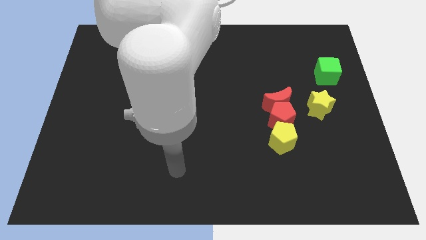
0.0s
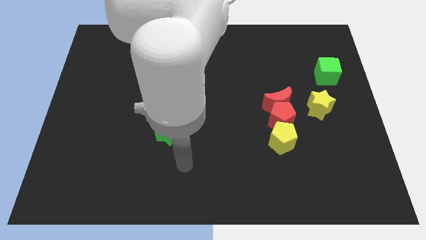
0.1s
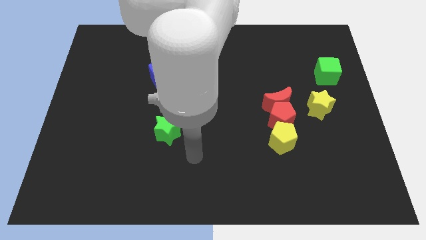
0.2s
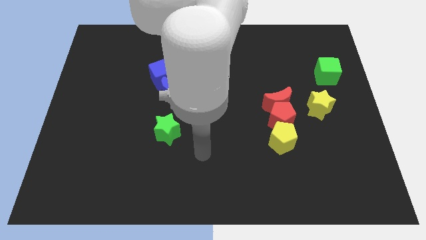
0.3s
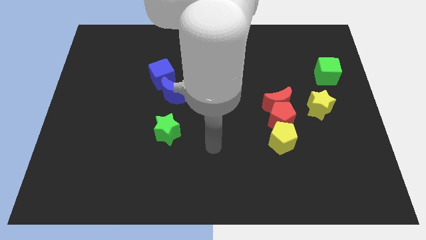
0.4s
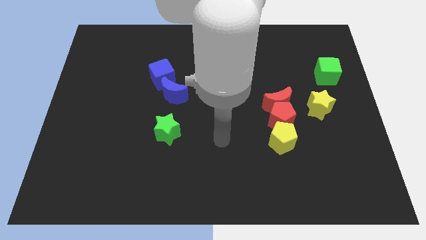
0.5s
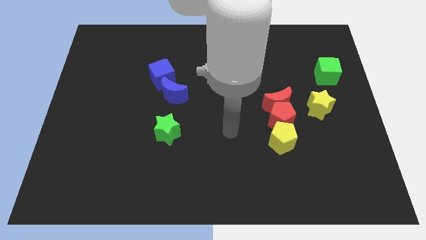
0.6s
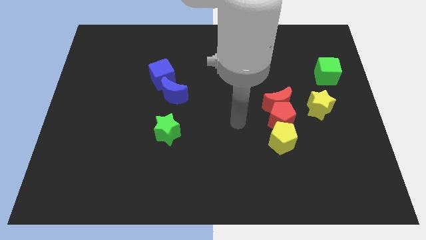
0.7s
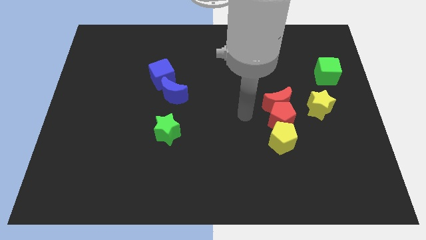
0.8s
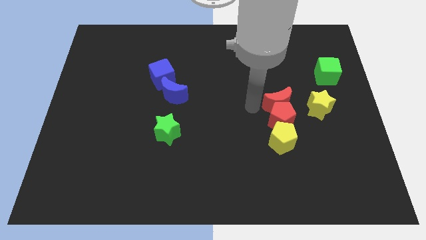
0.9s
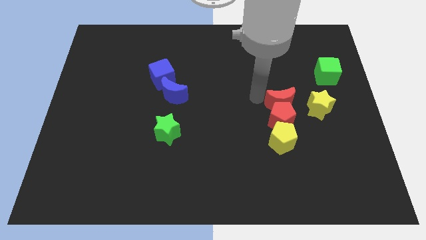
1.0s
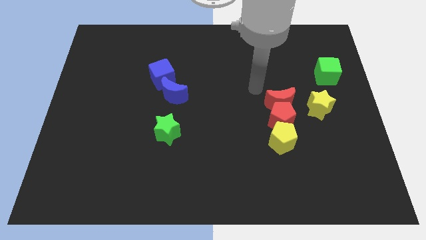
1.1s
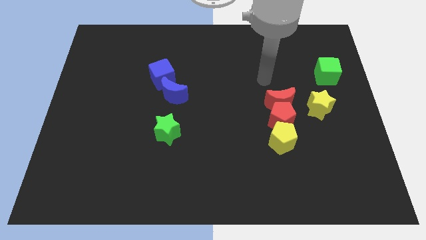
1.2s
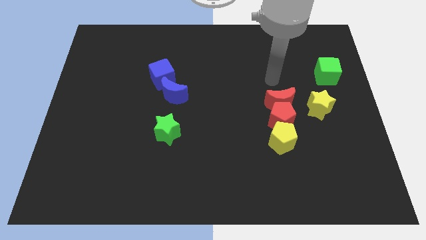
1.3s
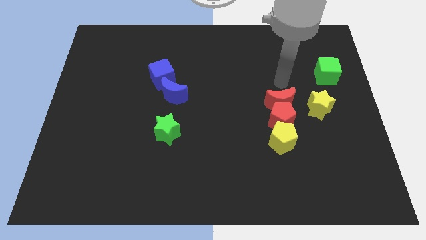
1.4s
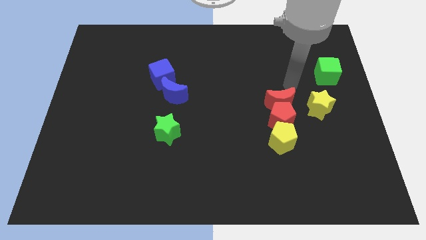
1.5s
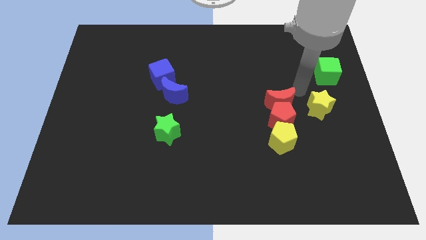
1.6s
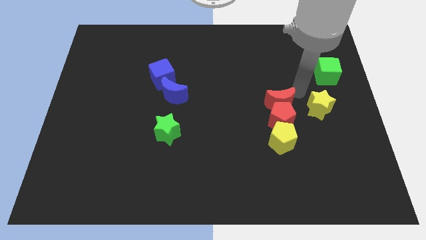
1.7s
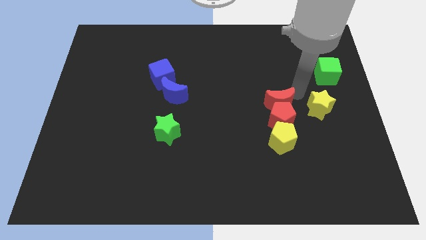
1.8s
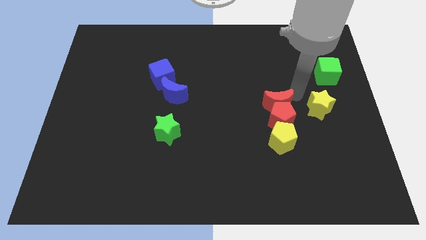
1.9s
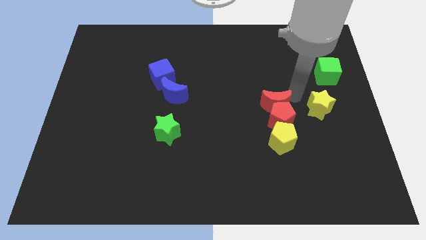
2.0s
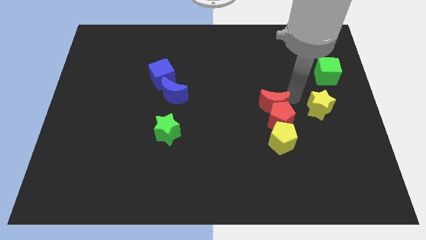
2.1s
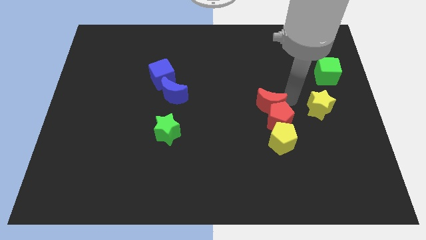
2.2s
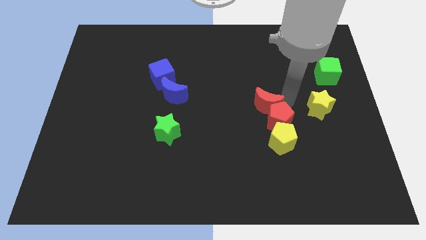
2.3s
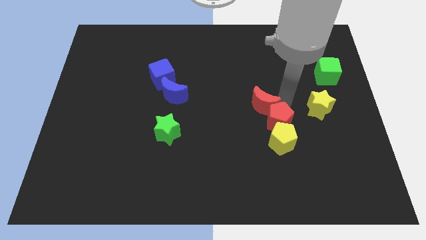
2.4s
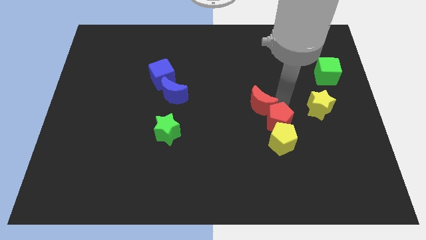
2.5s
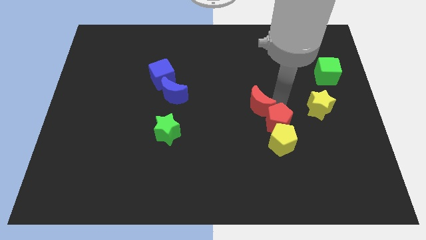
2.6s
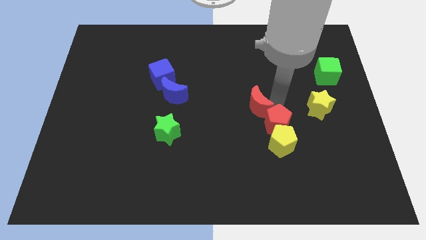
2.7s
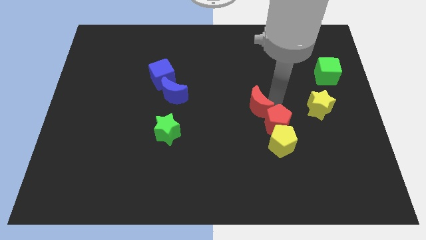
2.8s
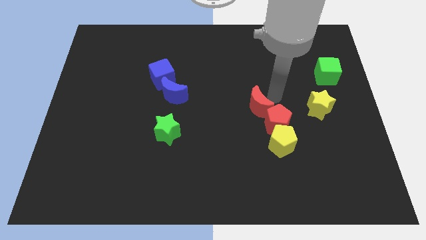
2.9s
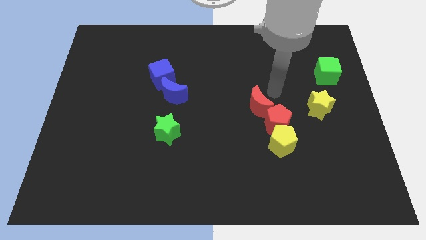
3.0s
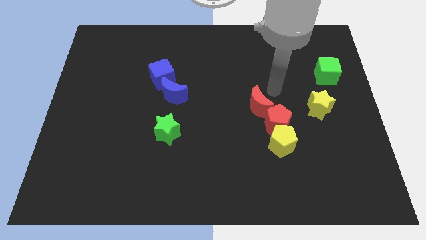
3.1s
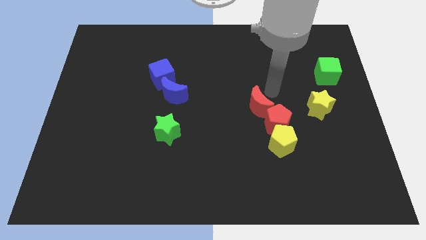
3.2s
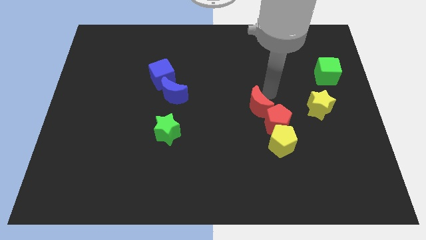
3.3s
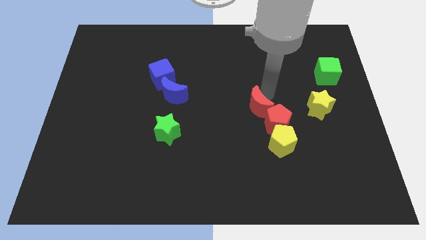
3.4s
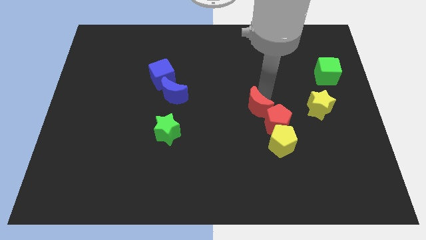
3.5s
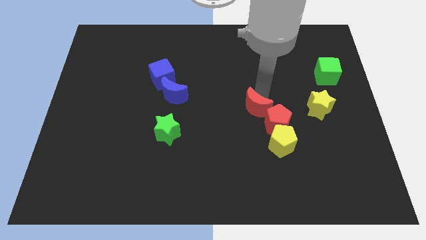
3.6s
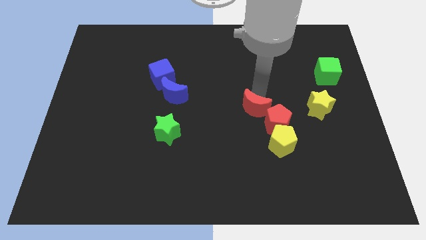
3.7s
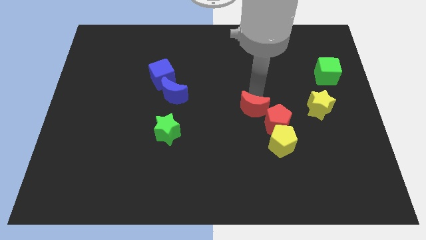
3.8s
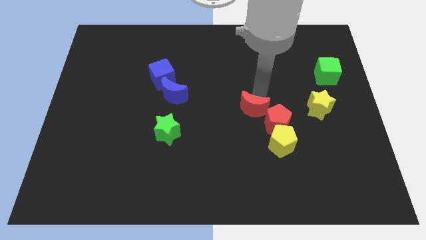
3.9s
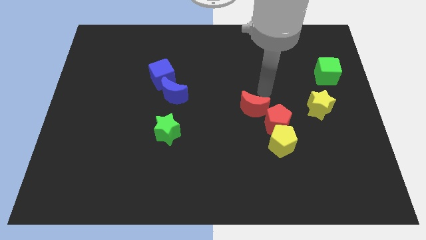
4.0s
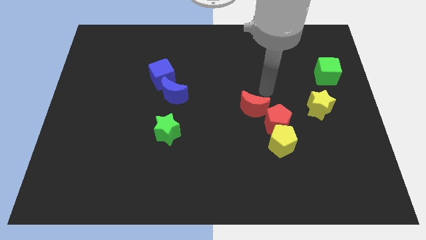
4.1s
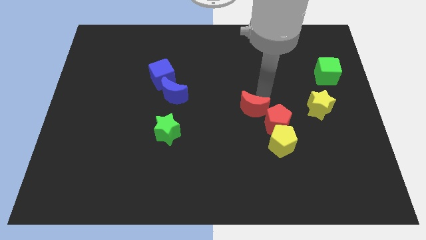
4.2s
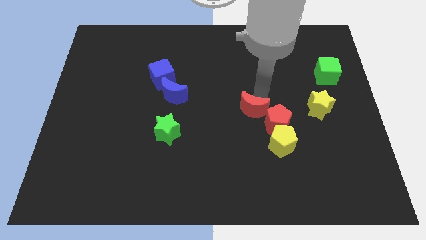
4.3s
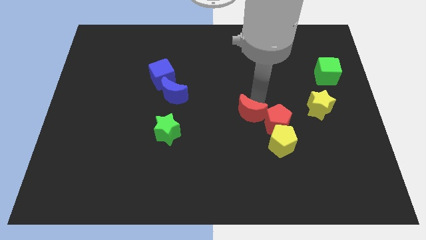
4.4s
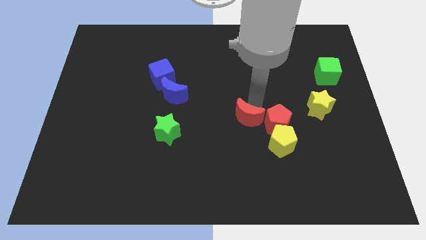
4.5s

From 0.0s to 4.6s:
slightly move the red moon down and to the left diagonally

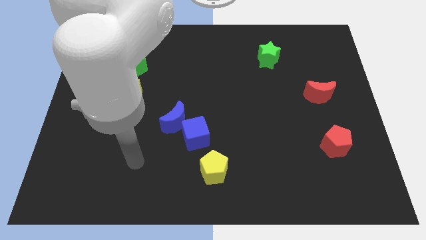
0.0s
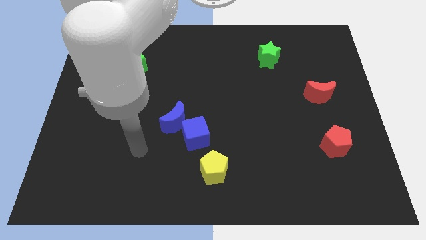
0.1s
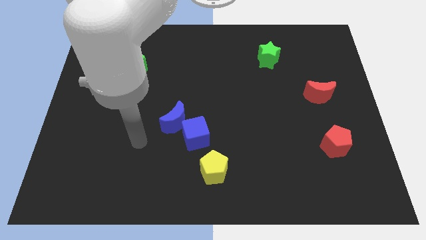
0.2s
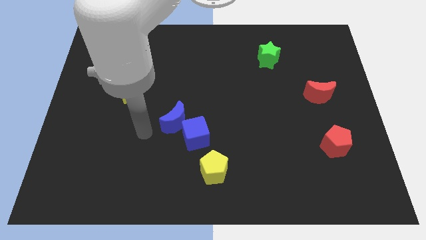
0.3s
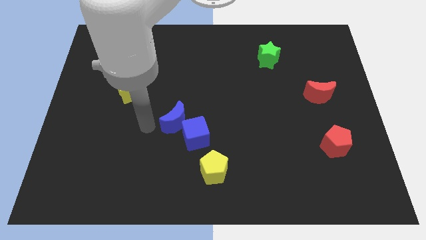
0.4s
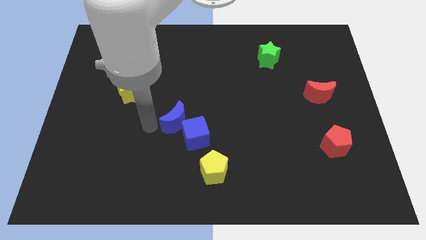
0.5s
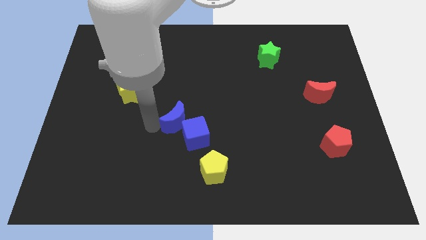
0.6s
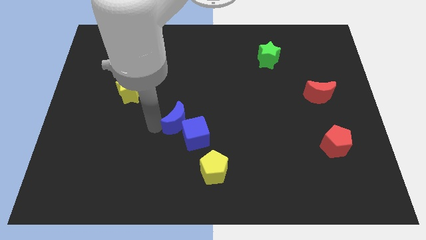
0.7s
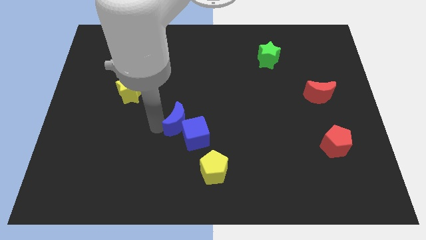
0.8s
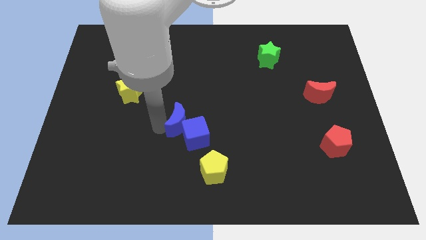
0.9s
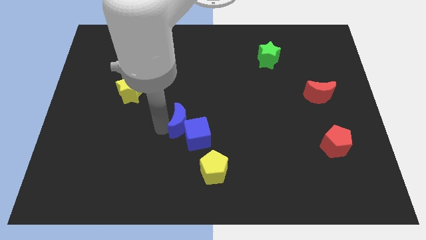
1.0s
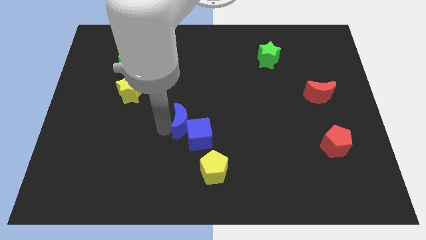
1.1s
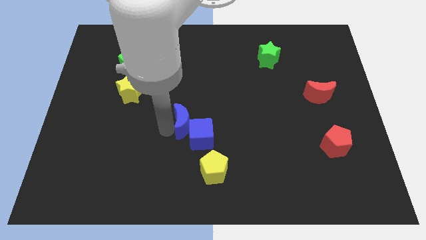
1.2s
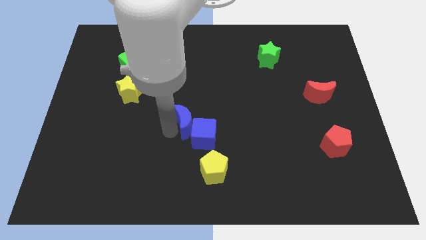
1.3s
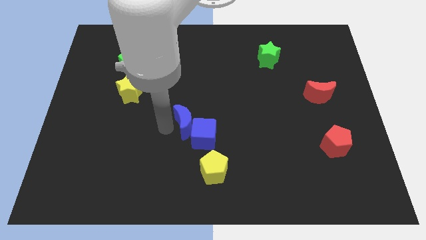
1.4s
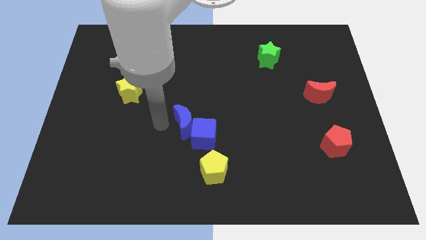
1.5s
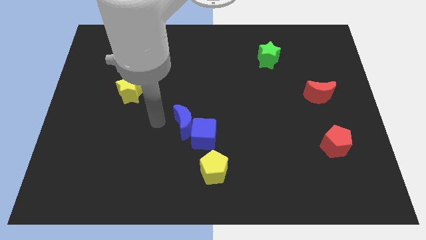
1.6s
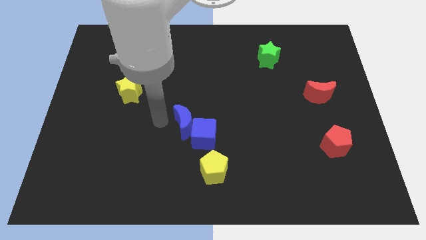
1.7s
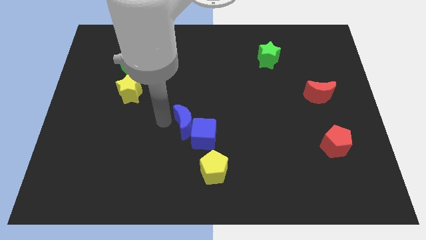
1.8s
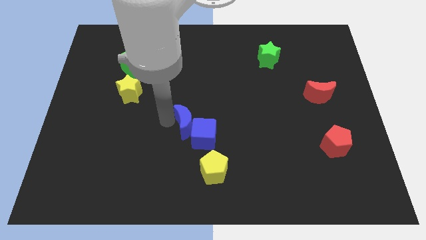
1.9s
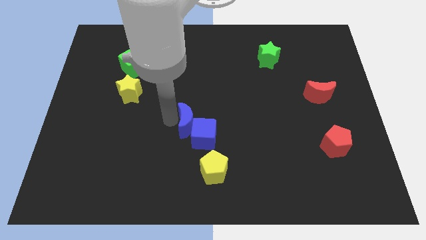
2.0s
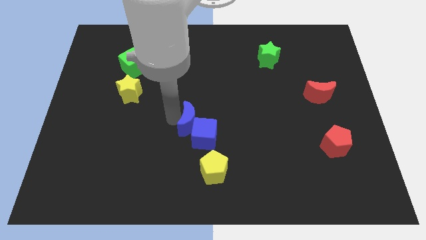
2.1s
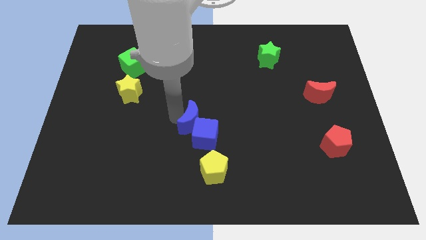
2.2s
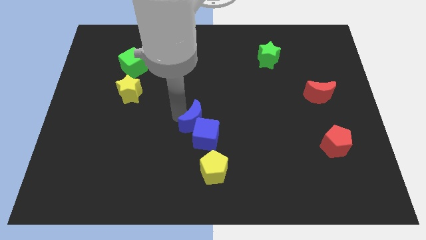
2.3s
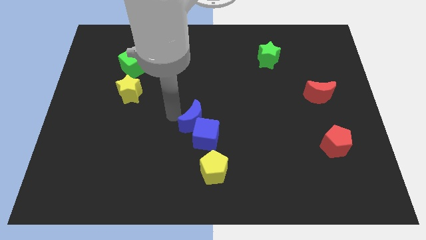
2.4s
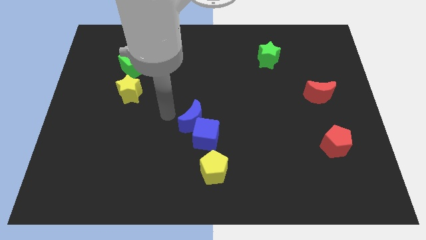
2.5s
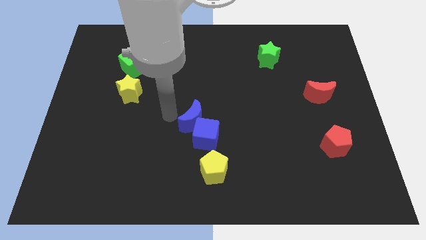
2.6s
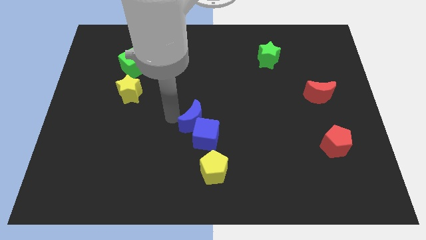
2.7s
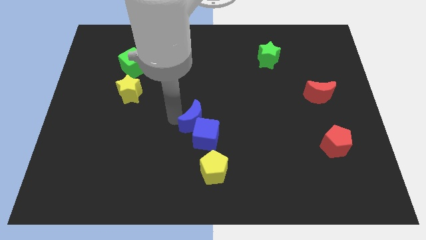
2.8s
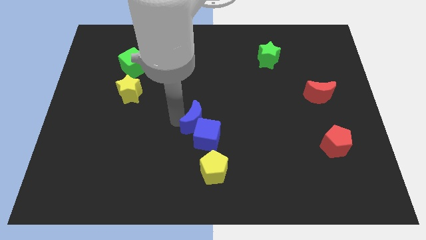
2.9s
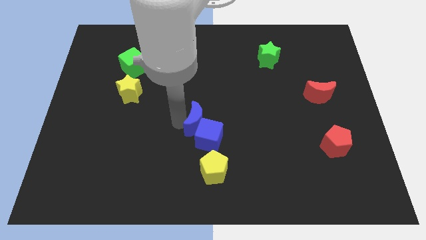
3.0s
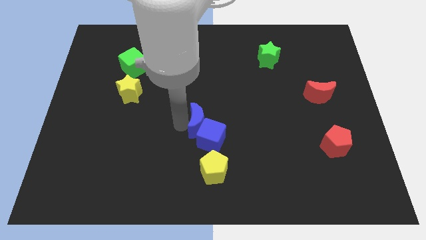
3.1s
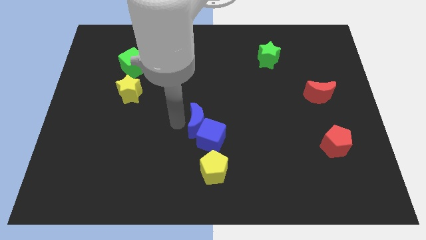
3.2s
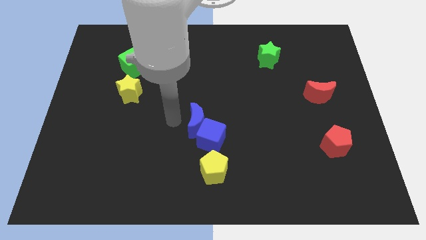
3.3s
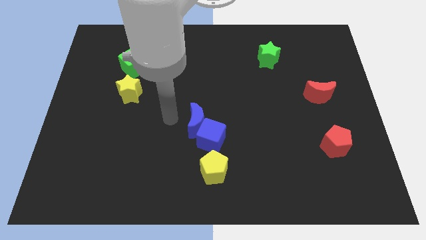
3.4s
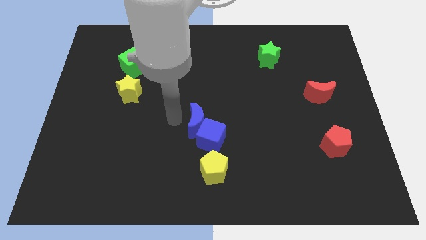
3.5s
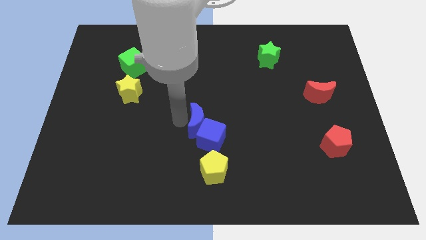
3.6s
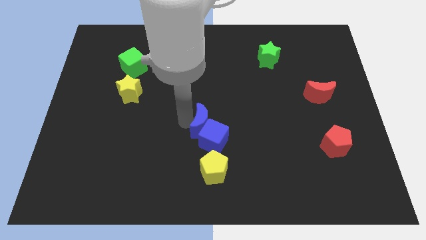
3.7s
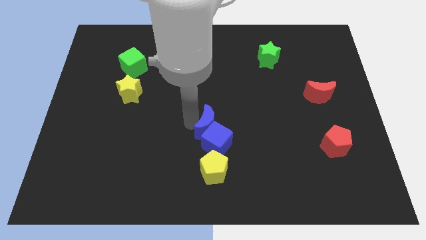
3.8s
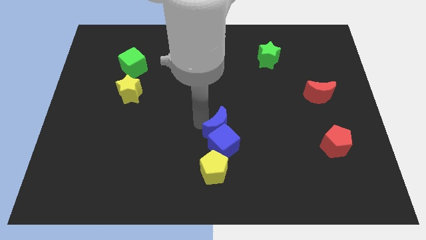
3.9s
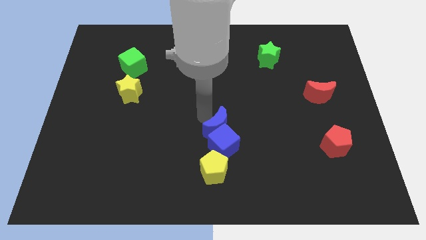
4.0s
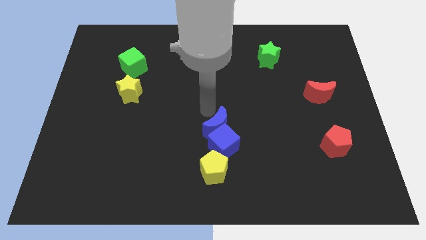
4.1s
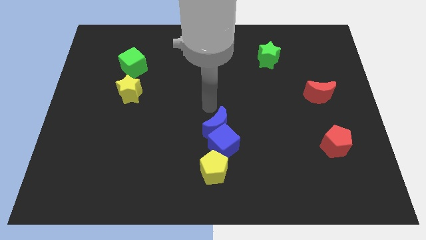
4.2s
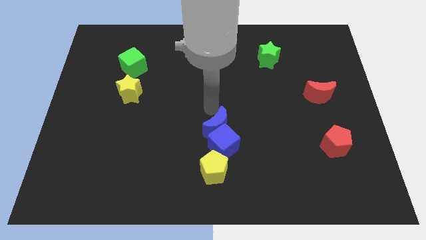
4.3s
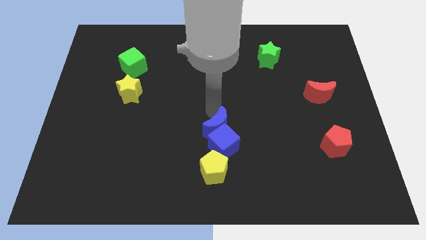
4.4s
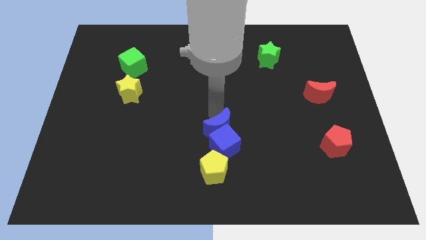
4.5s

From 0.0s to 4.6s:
slightly move the blue moon downwards and then right
